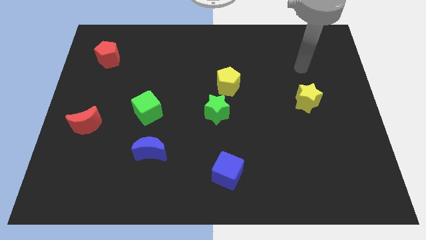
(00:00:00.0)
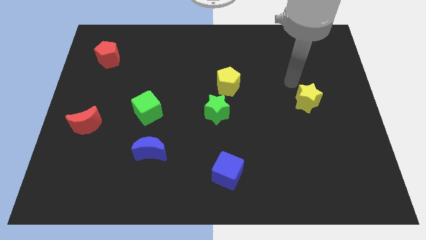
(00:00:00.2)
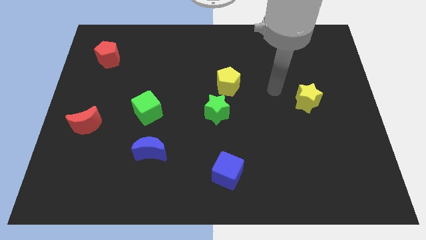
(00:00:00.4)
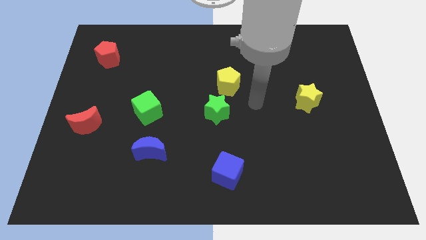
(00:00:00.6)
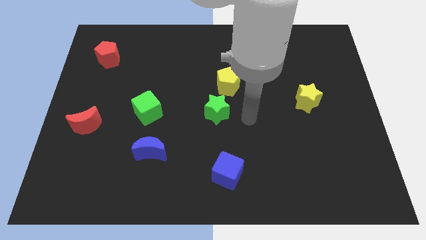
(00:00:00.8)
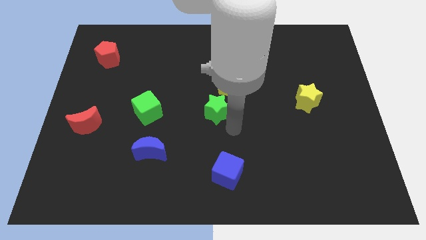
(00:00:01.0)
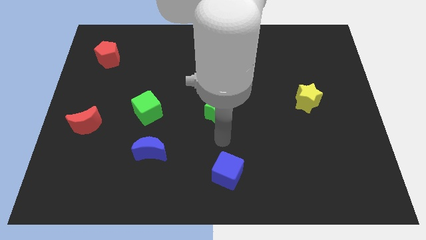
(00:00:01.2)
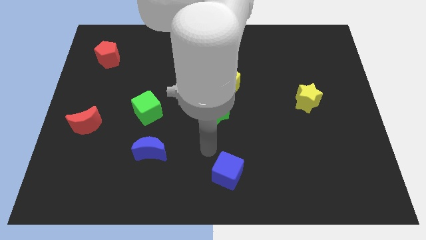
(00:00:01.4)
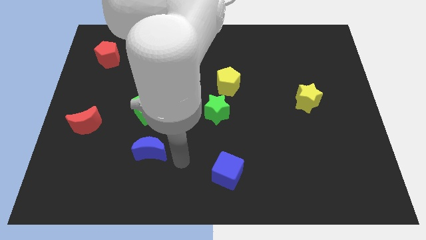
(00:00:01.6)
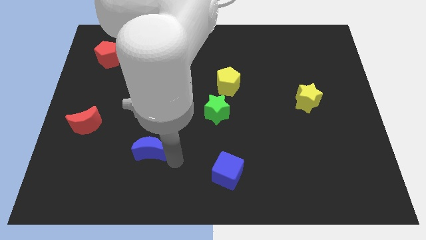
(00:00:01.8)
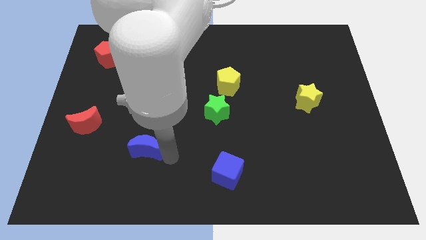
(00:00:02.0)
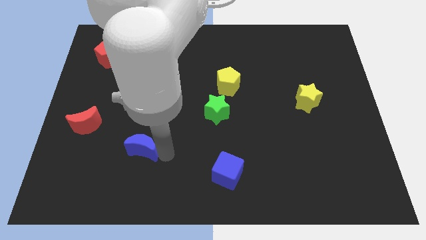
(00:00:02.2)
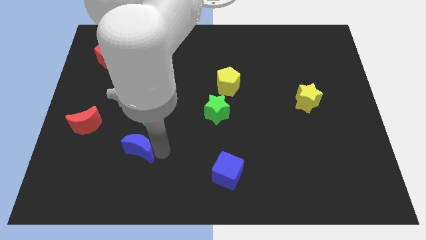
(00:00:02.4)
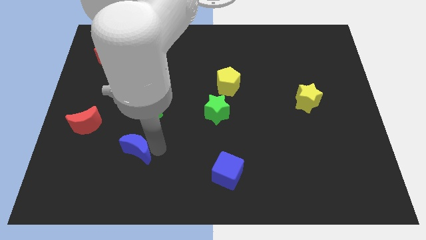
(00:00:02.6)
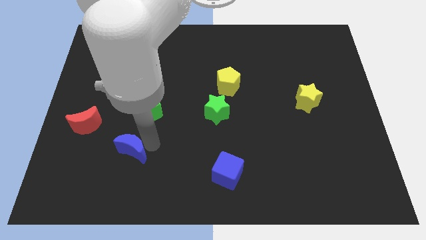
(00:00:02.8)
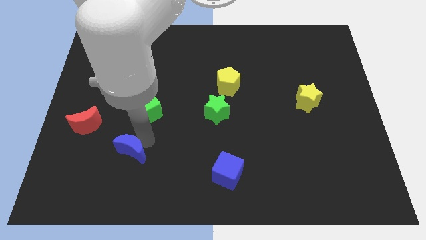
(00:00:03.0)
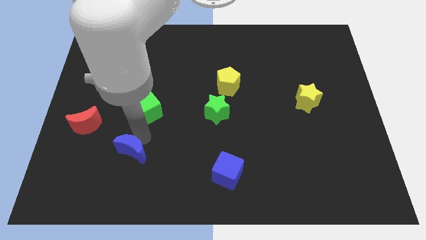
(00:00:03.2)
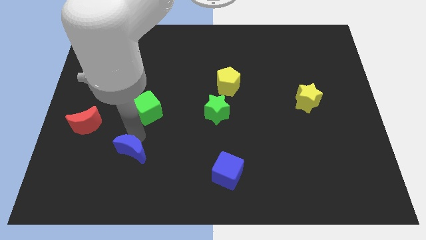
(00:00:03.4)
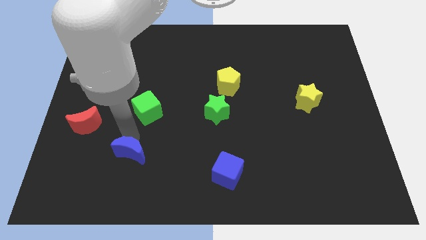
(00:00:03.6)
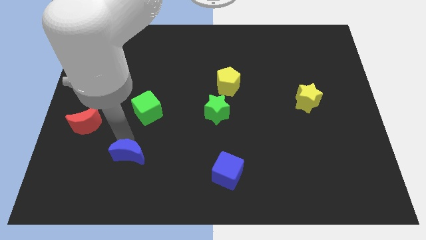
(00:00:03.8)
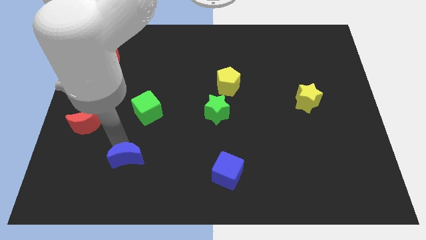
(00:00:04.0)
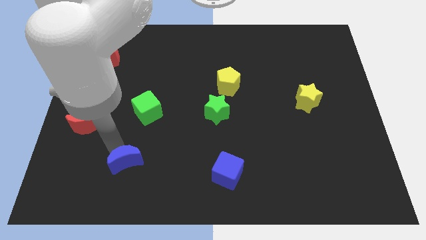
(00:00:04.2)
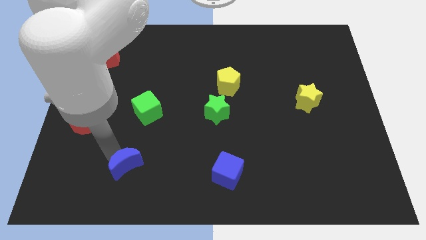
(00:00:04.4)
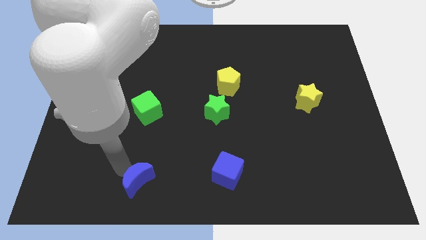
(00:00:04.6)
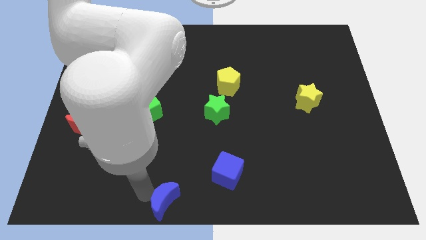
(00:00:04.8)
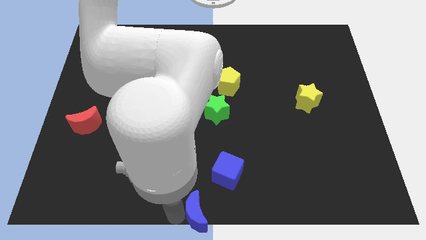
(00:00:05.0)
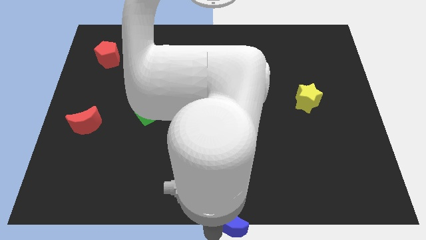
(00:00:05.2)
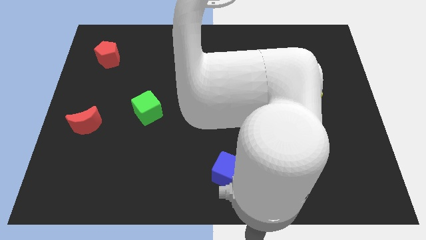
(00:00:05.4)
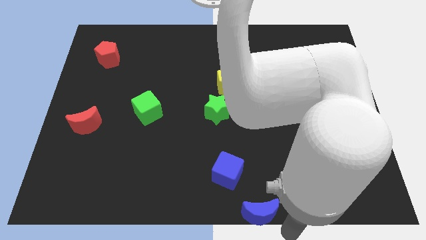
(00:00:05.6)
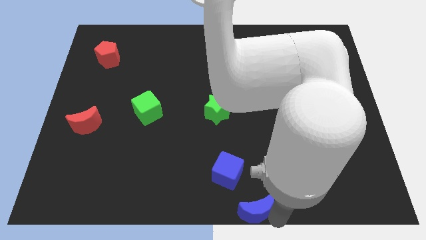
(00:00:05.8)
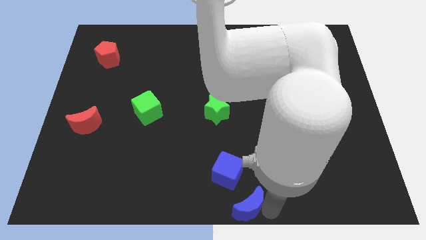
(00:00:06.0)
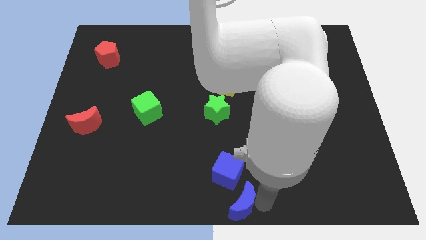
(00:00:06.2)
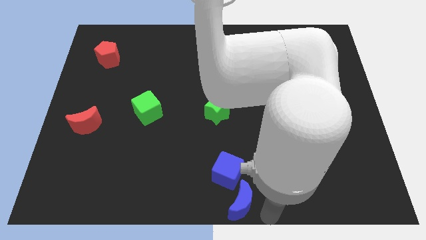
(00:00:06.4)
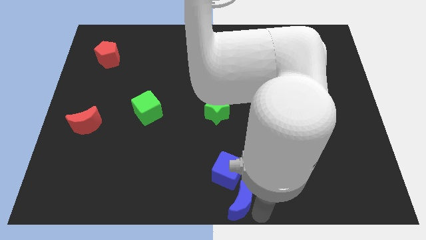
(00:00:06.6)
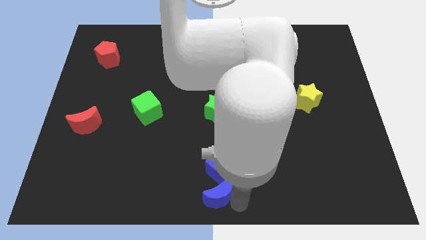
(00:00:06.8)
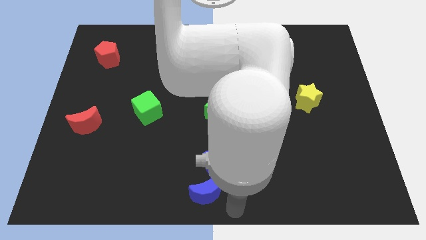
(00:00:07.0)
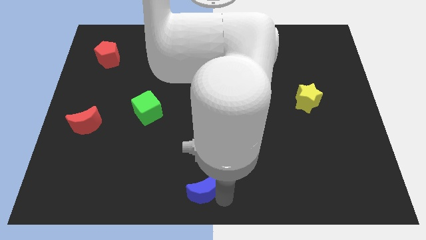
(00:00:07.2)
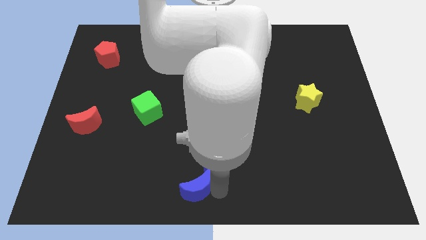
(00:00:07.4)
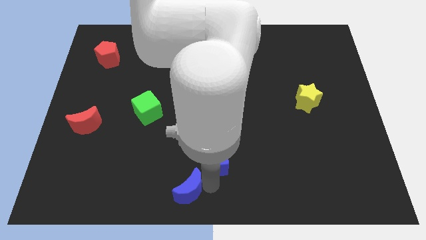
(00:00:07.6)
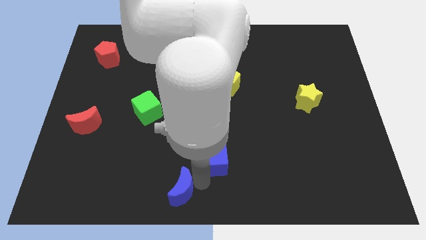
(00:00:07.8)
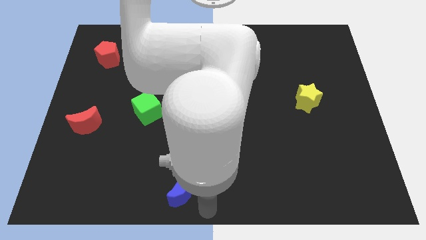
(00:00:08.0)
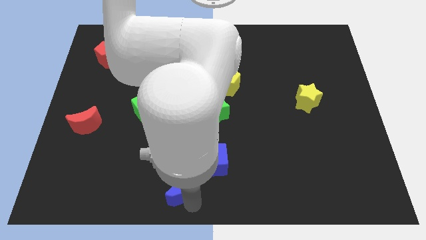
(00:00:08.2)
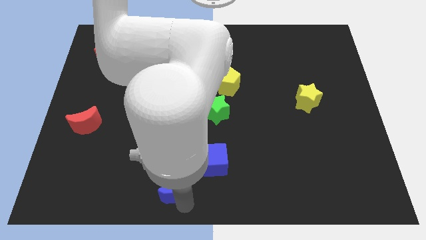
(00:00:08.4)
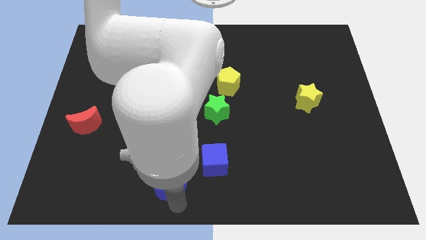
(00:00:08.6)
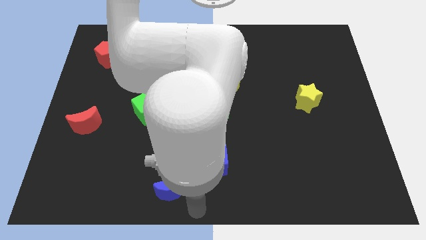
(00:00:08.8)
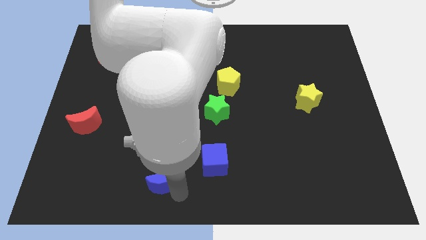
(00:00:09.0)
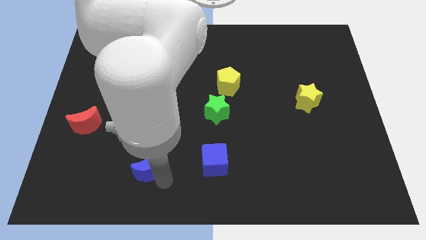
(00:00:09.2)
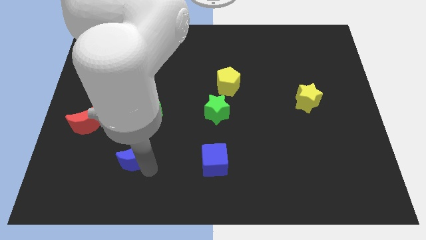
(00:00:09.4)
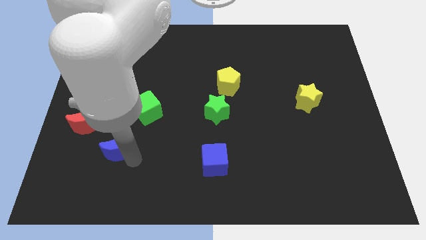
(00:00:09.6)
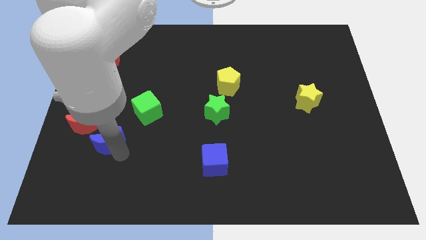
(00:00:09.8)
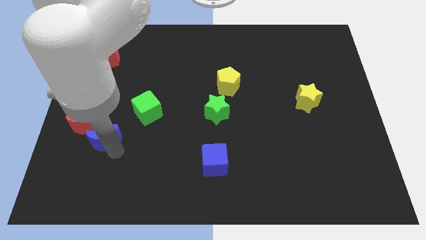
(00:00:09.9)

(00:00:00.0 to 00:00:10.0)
slightly move the blue moon up and left

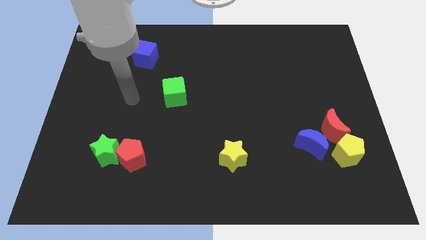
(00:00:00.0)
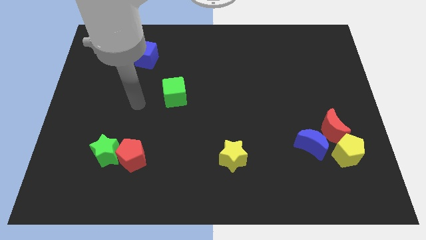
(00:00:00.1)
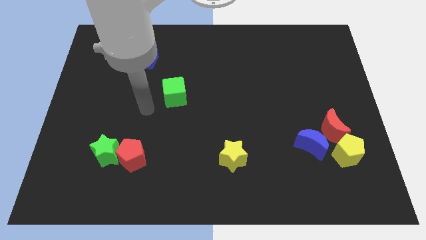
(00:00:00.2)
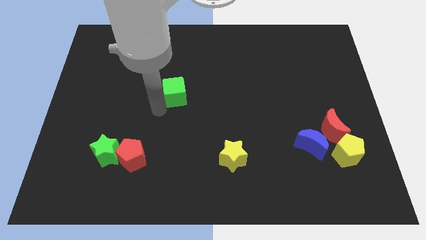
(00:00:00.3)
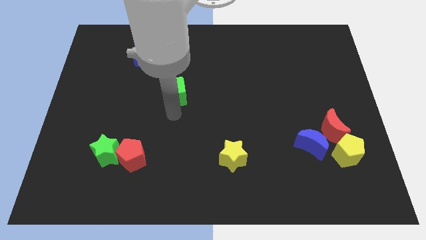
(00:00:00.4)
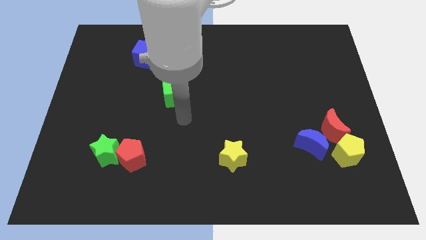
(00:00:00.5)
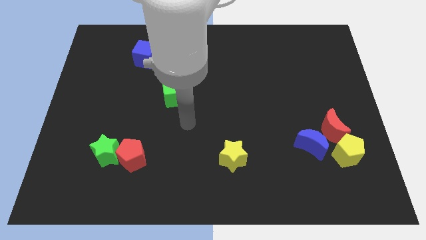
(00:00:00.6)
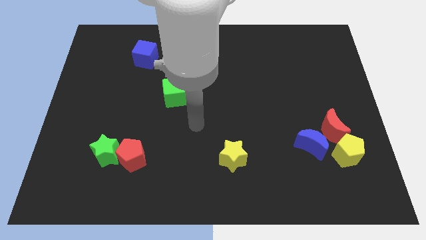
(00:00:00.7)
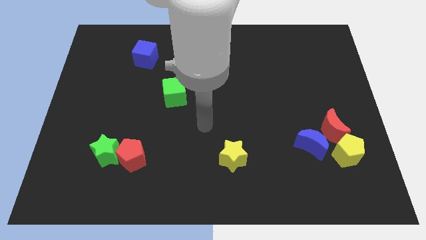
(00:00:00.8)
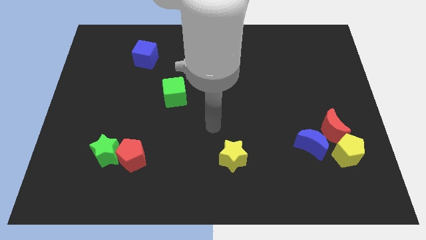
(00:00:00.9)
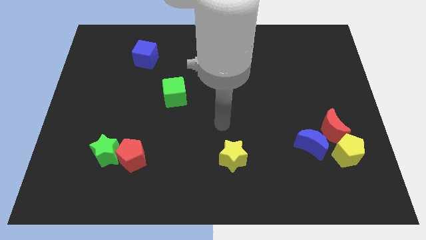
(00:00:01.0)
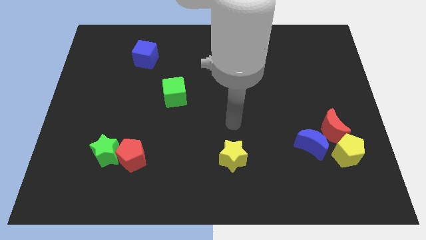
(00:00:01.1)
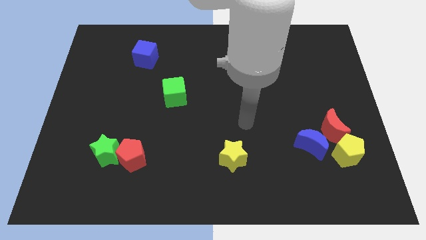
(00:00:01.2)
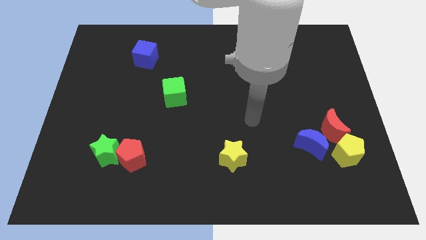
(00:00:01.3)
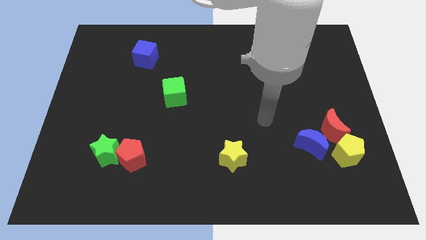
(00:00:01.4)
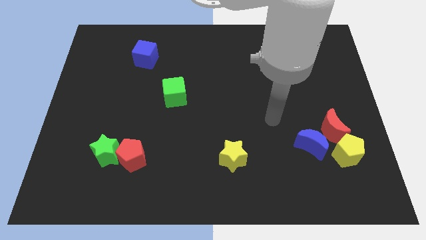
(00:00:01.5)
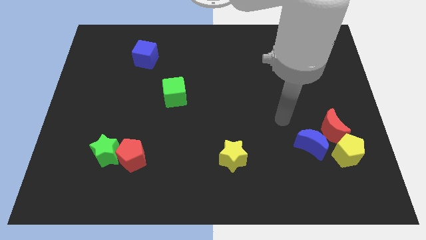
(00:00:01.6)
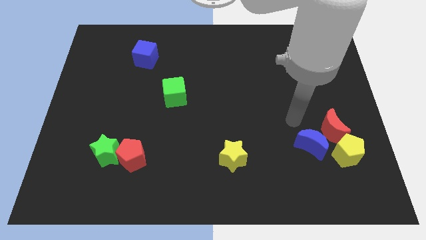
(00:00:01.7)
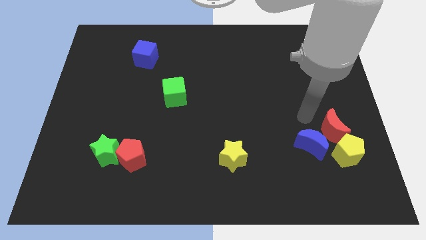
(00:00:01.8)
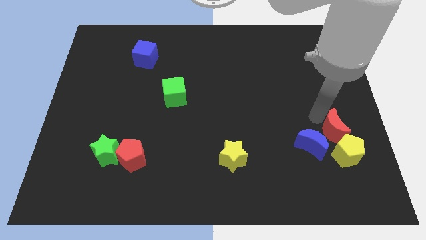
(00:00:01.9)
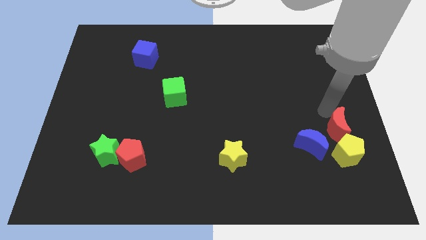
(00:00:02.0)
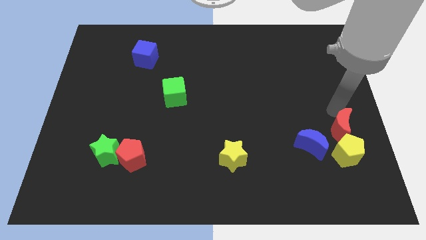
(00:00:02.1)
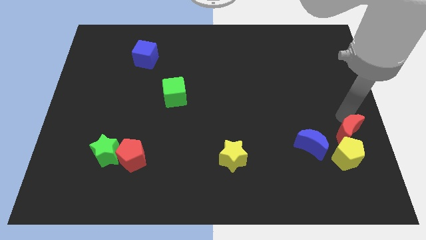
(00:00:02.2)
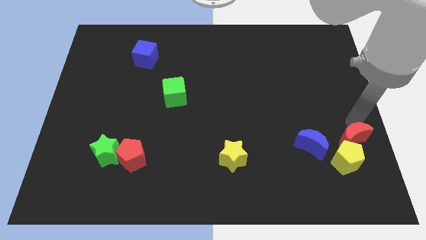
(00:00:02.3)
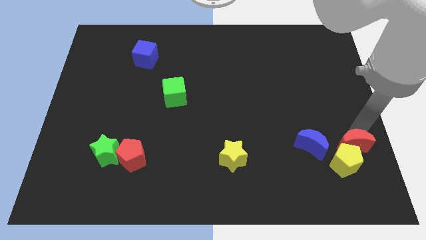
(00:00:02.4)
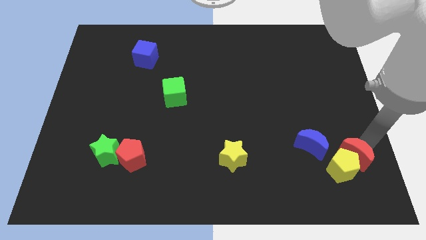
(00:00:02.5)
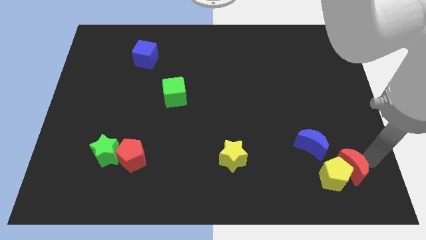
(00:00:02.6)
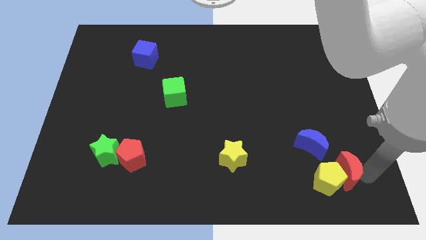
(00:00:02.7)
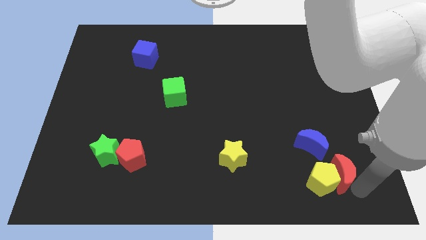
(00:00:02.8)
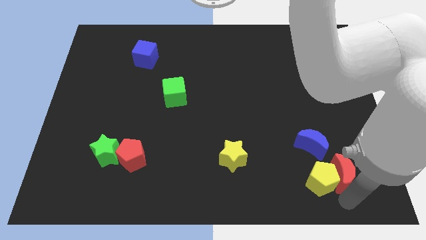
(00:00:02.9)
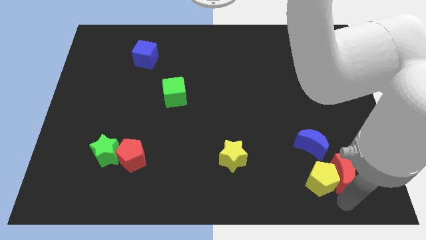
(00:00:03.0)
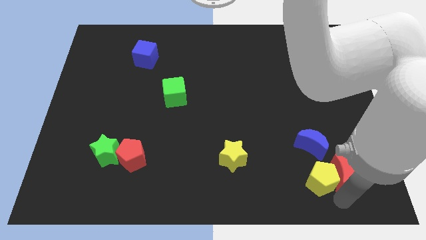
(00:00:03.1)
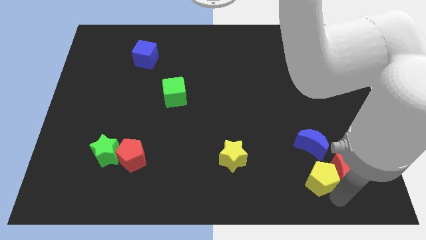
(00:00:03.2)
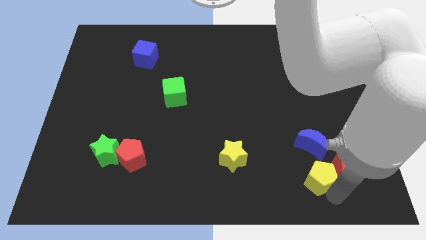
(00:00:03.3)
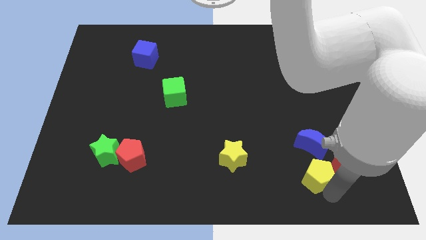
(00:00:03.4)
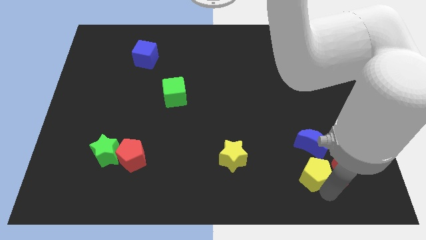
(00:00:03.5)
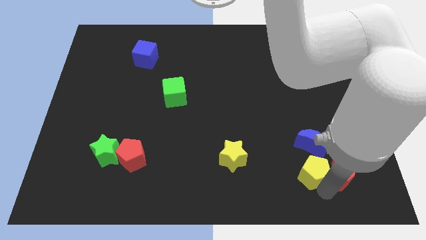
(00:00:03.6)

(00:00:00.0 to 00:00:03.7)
move the yellow pentagon left a little
